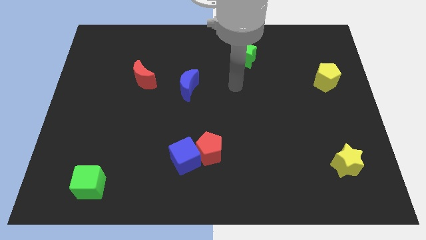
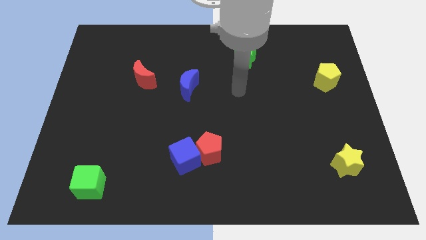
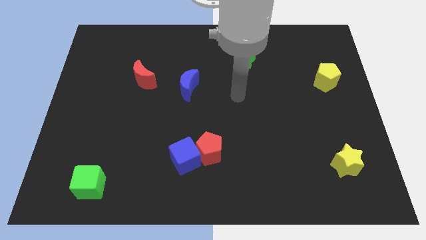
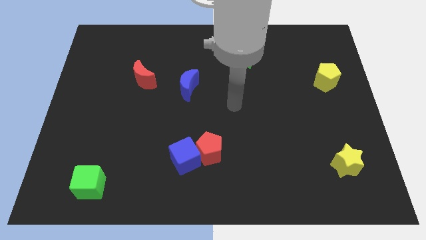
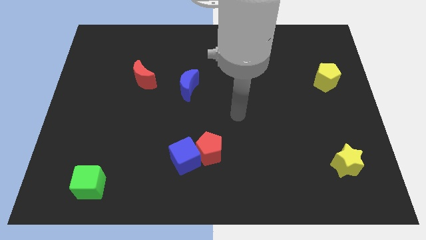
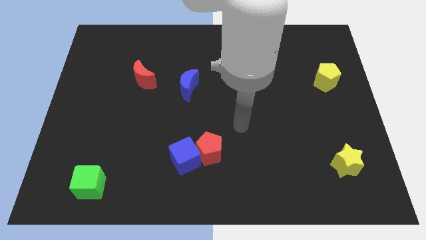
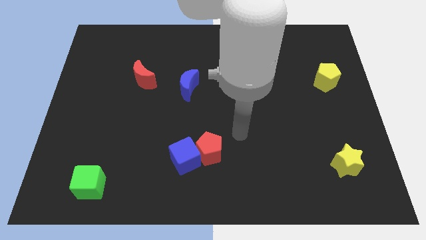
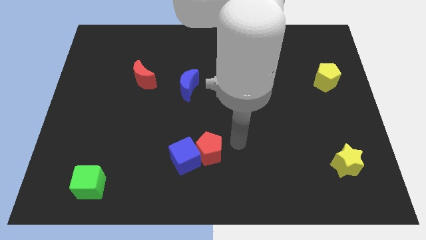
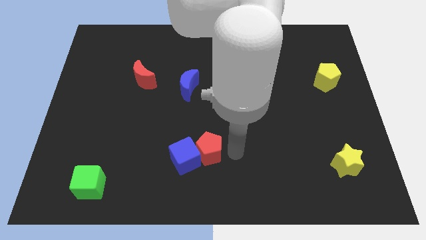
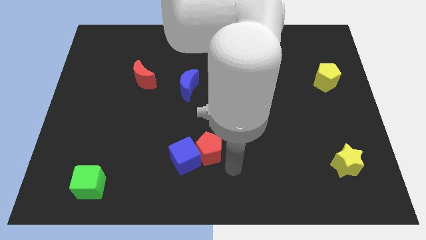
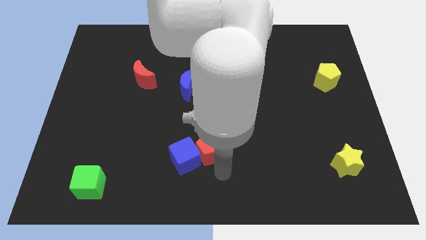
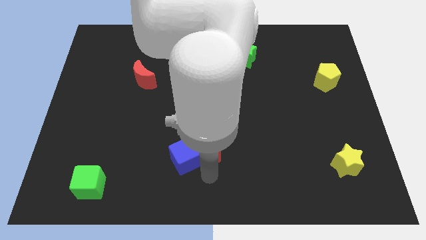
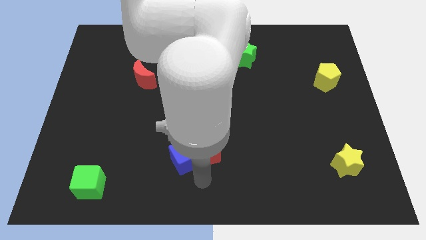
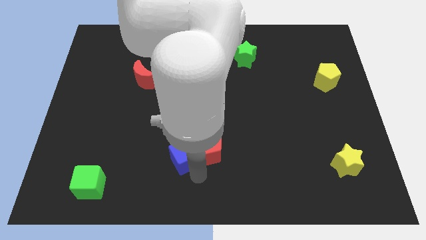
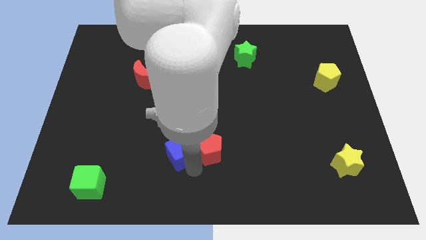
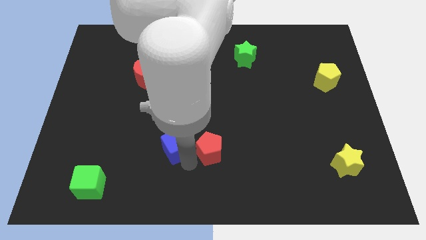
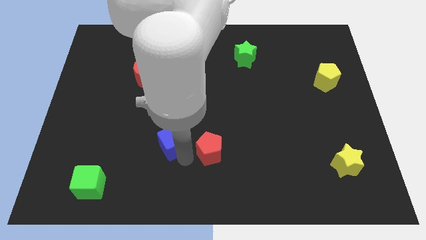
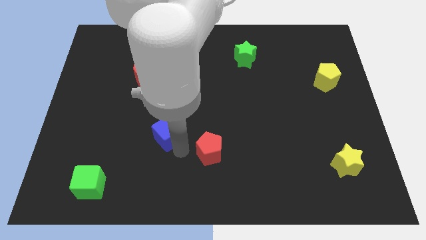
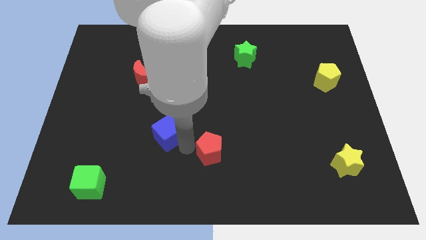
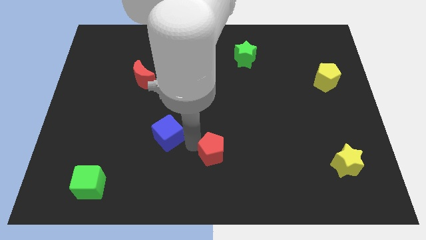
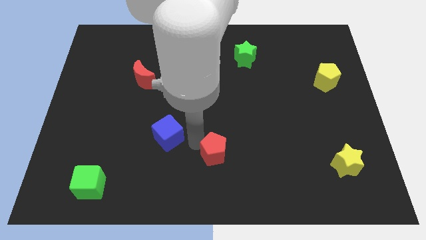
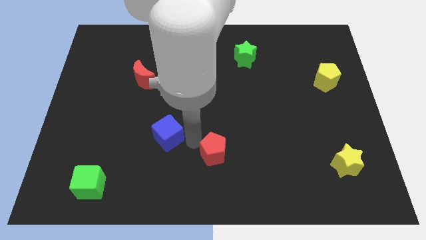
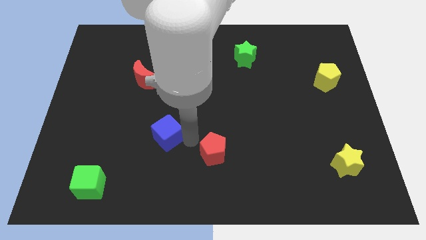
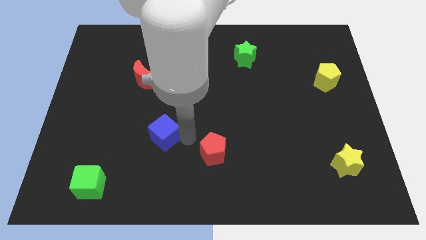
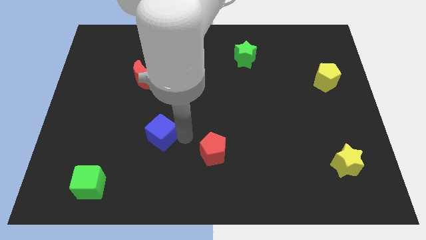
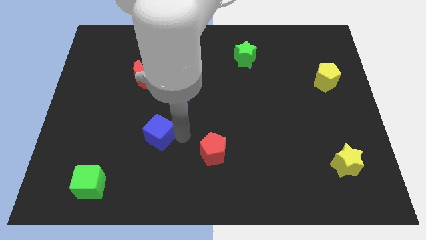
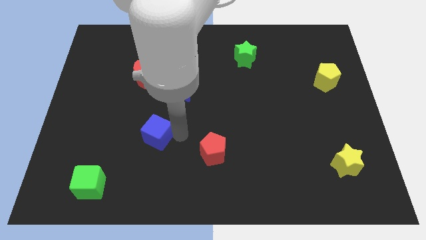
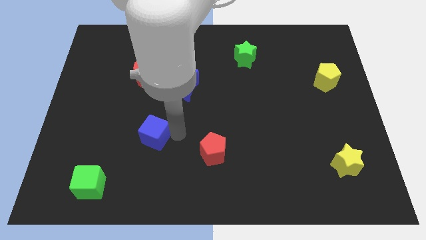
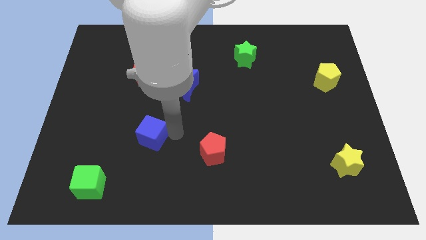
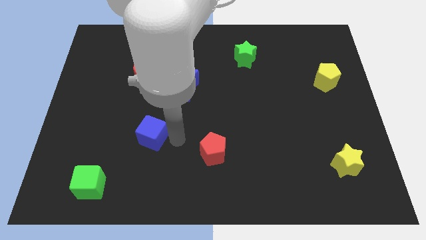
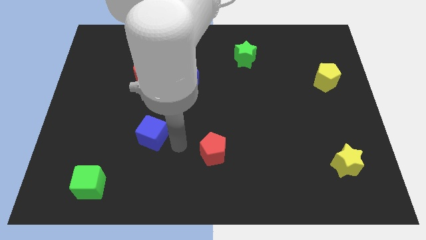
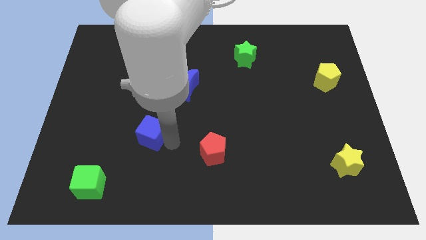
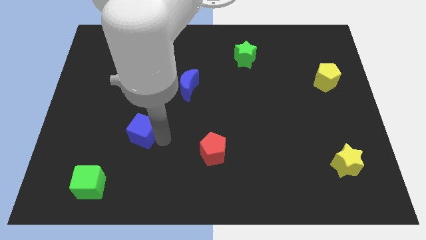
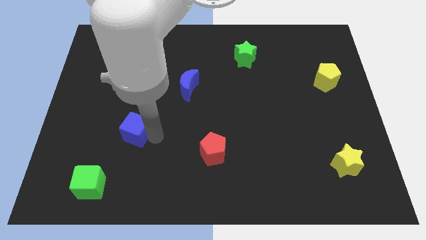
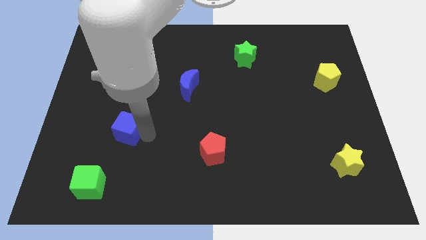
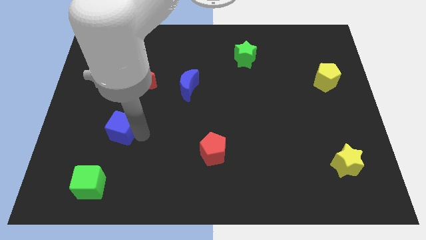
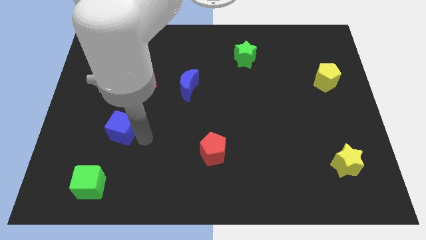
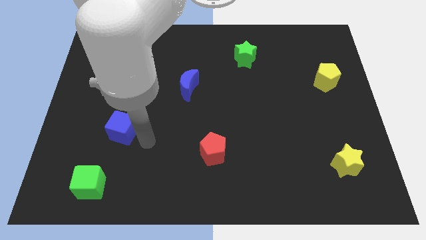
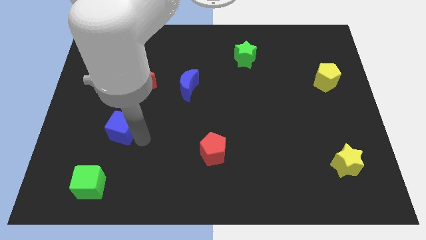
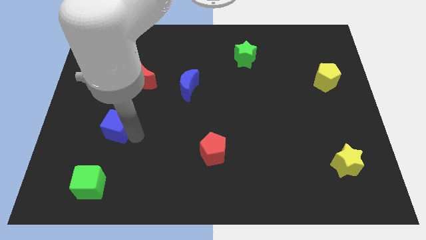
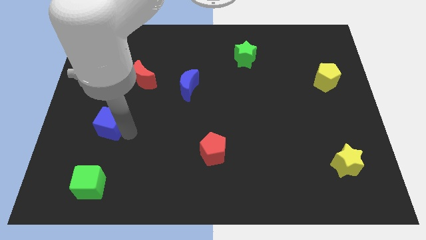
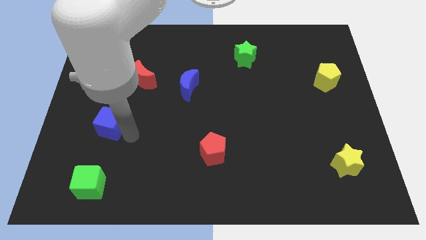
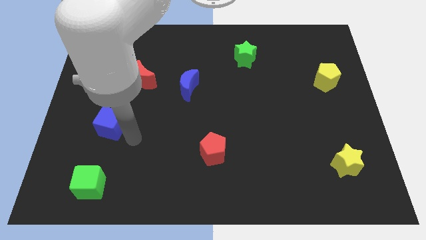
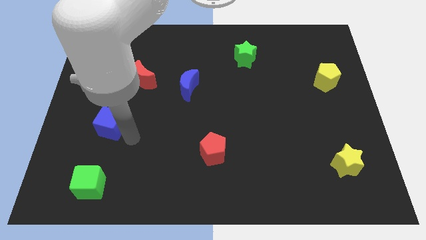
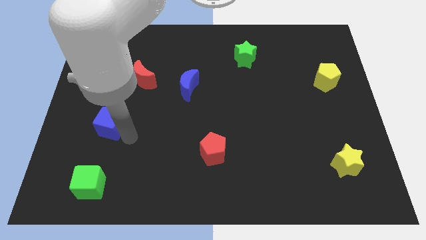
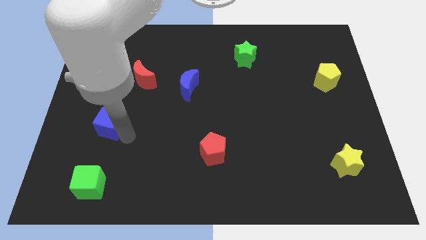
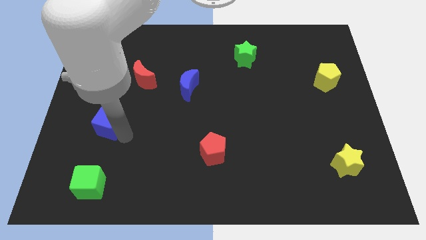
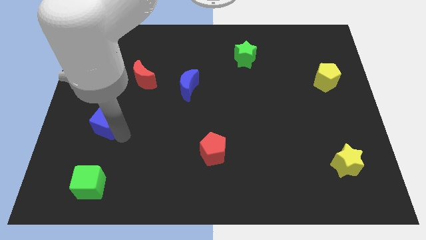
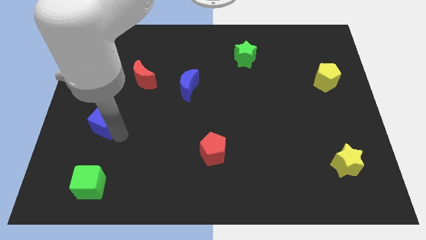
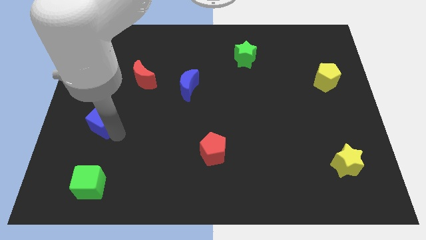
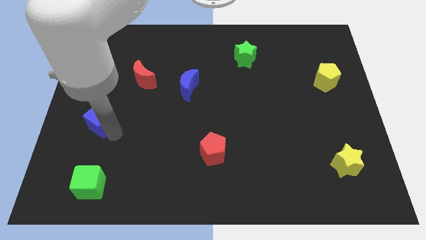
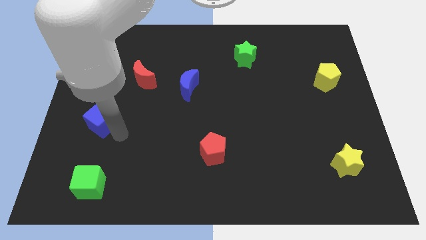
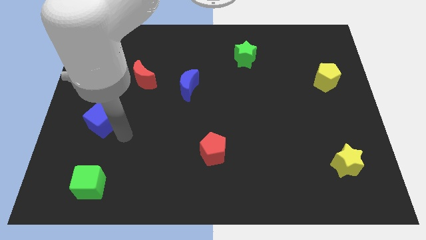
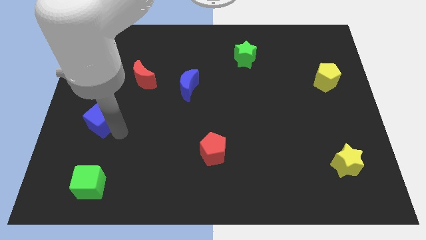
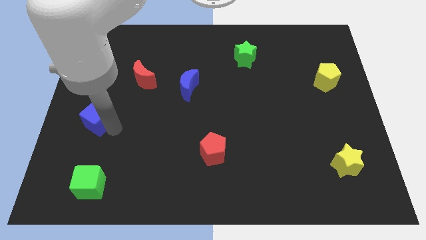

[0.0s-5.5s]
put the blue cube to the center left

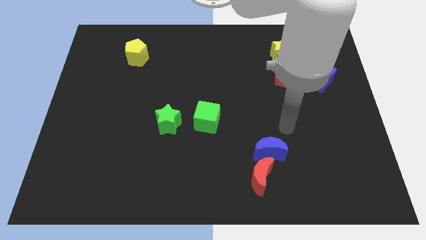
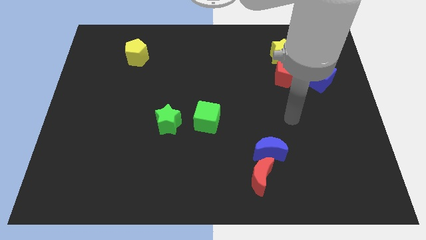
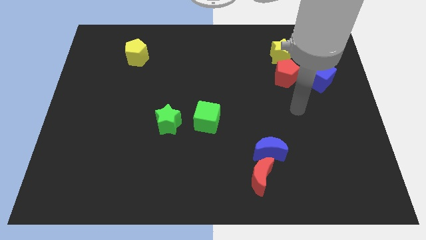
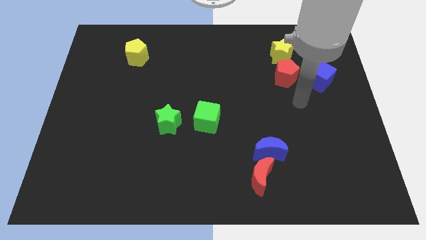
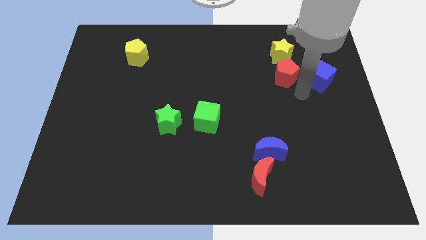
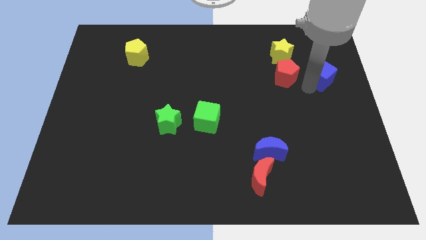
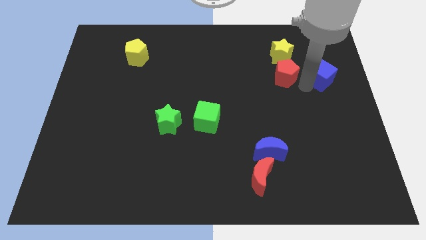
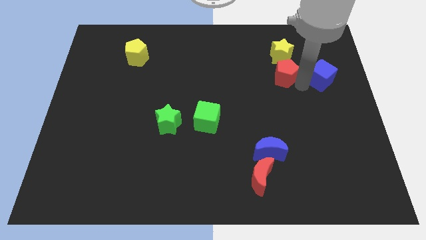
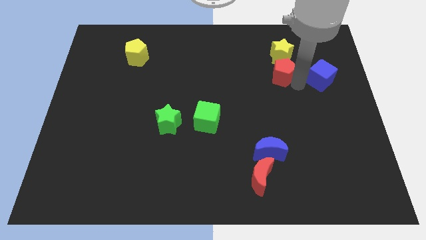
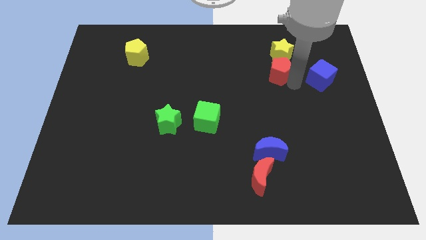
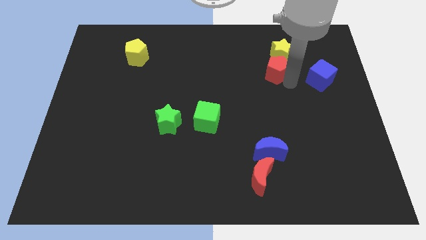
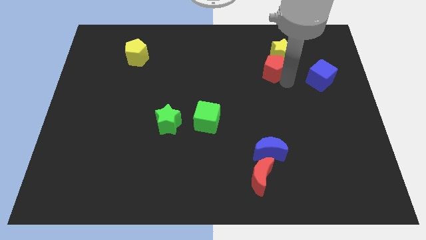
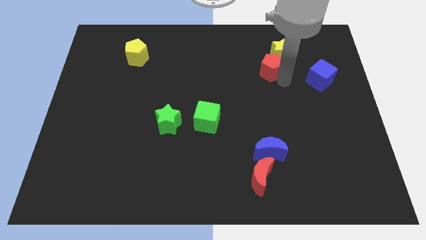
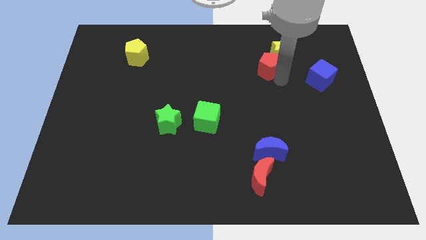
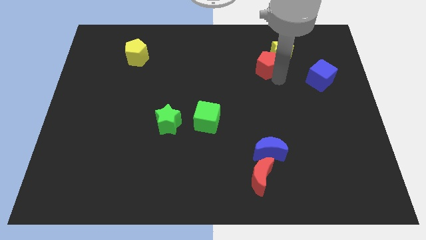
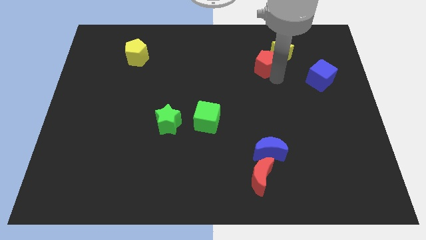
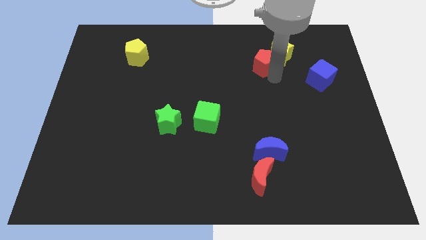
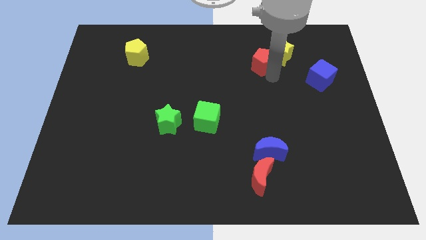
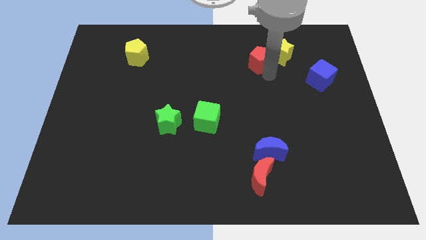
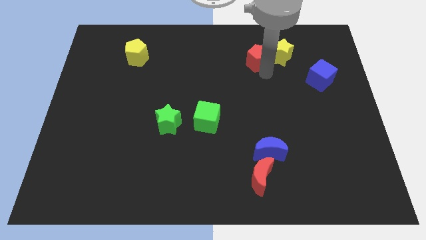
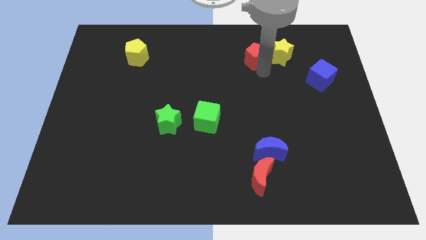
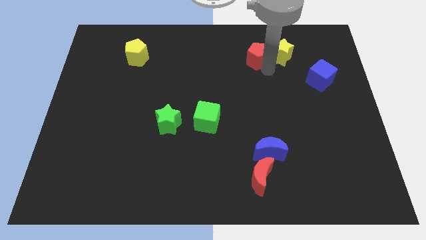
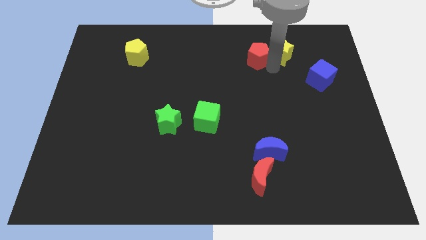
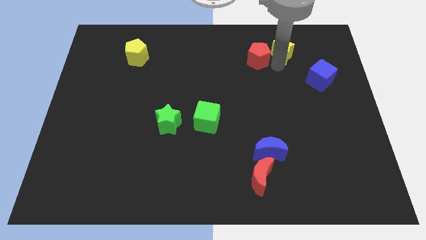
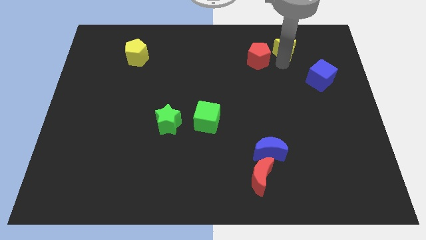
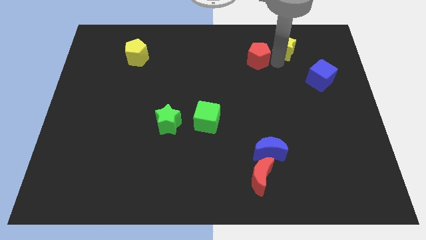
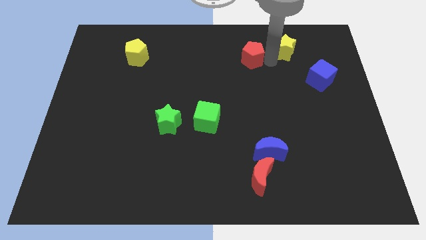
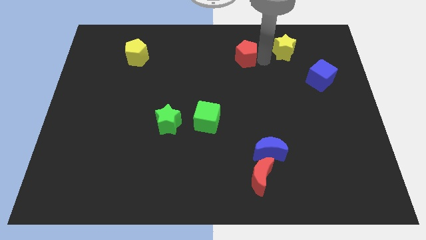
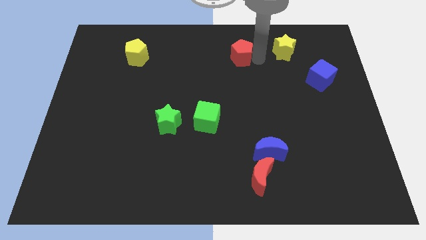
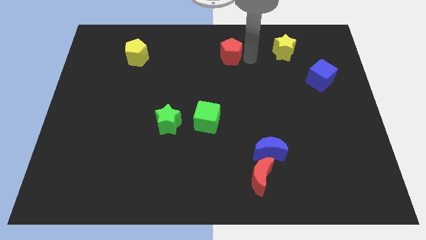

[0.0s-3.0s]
put the red pentagon to the towards your base
